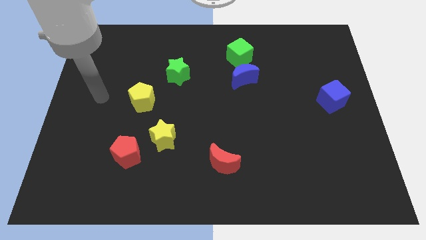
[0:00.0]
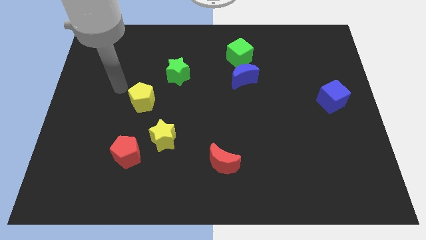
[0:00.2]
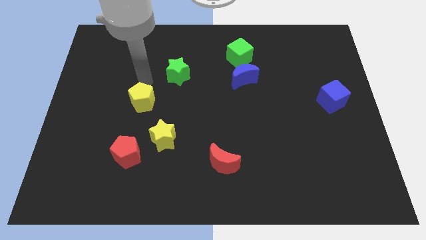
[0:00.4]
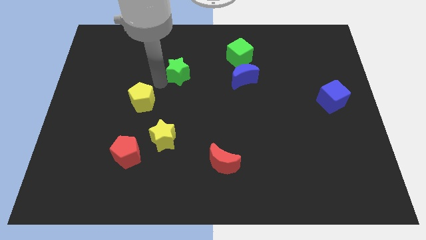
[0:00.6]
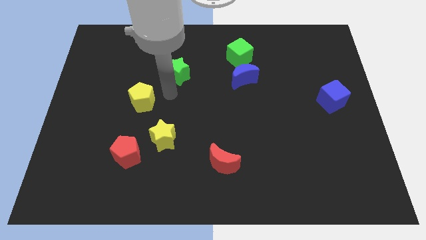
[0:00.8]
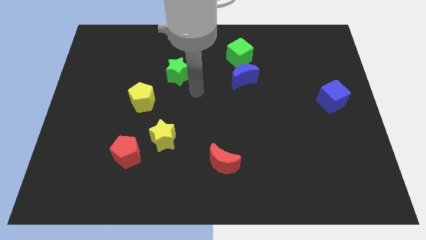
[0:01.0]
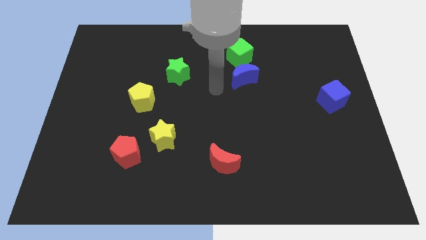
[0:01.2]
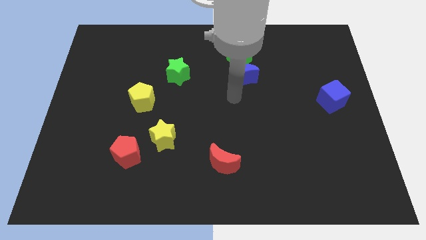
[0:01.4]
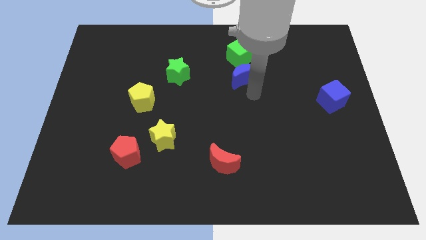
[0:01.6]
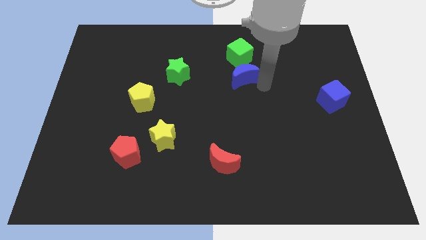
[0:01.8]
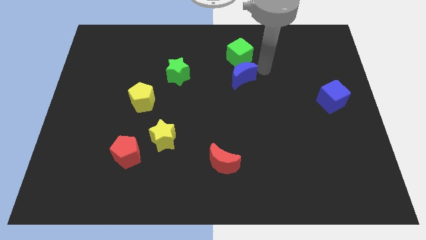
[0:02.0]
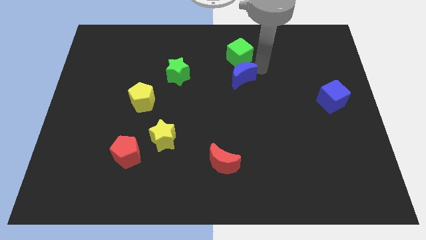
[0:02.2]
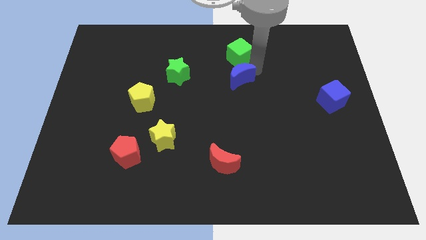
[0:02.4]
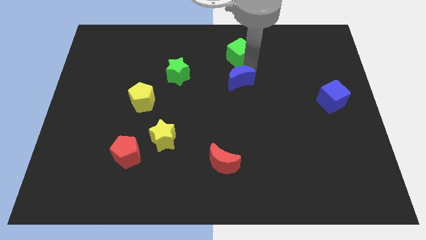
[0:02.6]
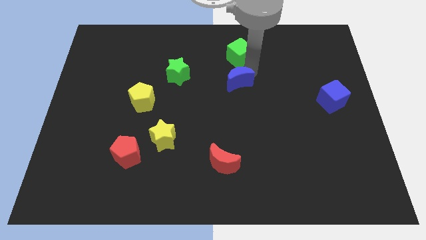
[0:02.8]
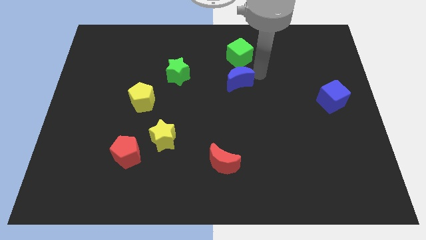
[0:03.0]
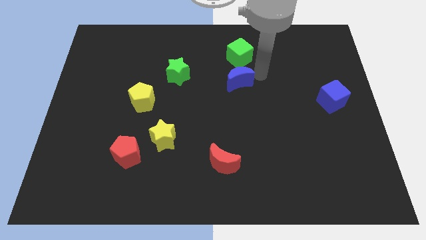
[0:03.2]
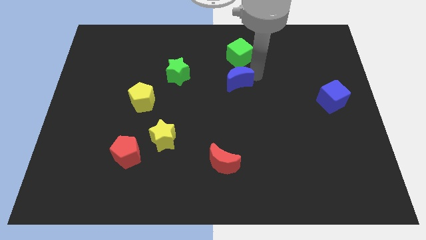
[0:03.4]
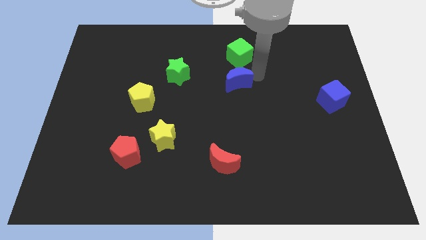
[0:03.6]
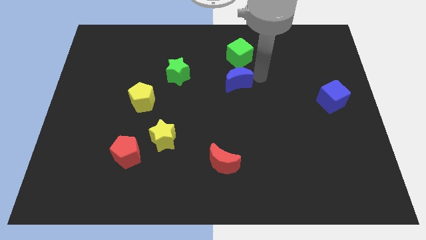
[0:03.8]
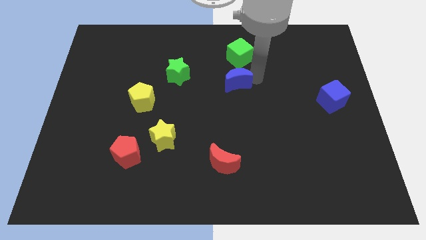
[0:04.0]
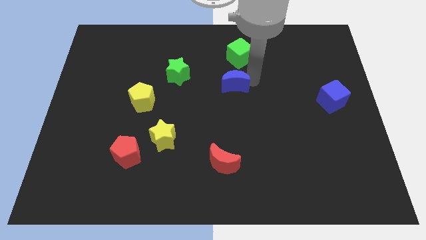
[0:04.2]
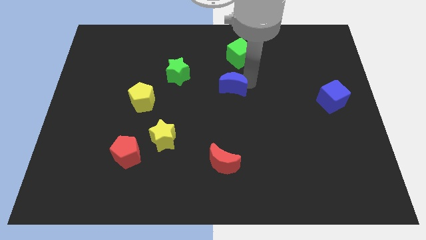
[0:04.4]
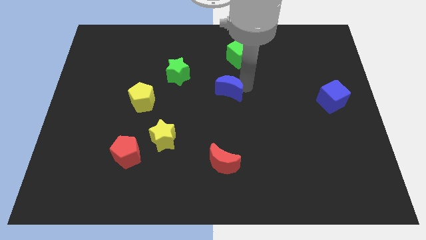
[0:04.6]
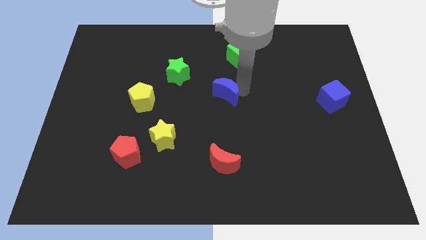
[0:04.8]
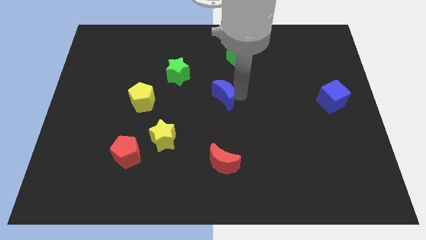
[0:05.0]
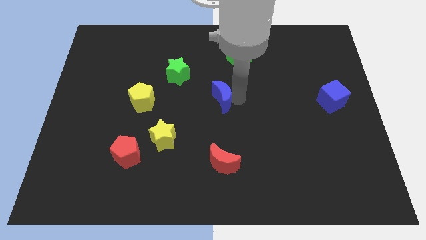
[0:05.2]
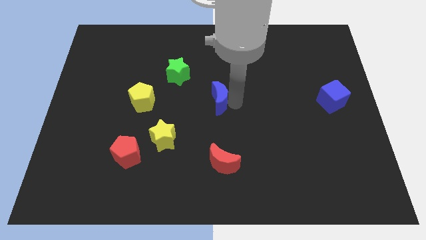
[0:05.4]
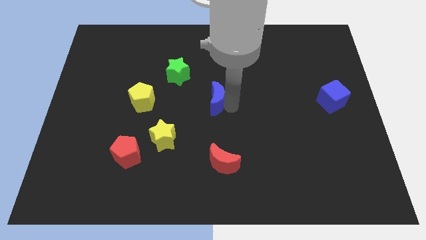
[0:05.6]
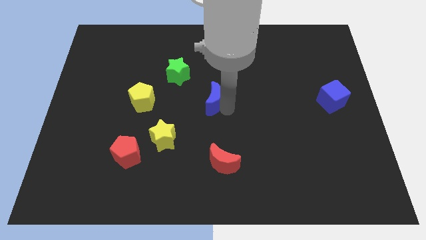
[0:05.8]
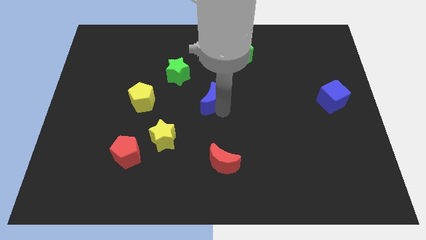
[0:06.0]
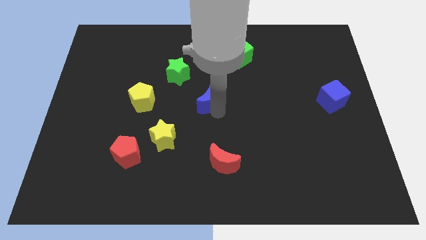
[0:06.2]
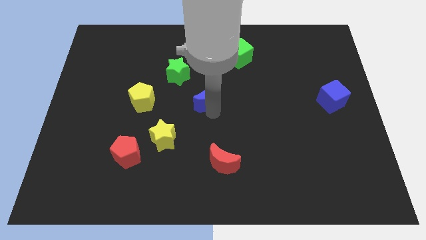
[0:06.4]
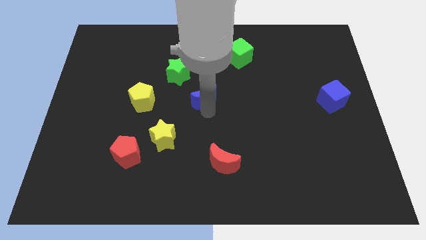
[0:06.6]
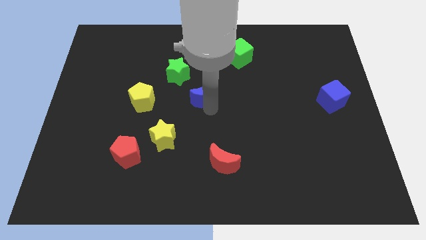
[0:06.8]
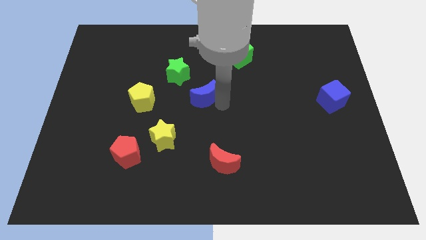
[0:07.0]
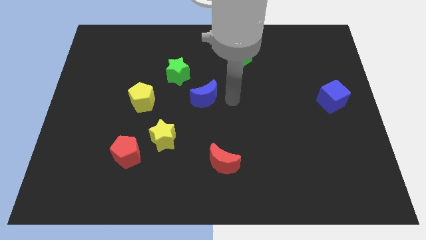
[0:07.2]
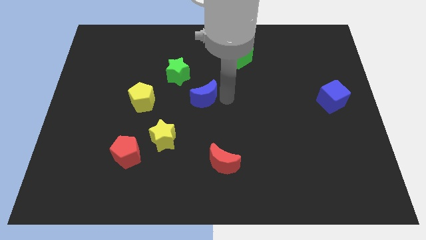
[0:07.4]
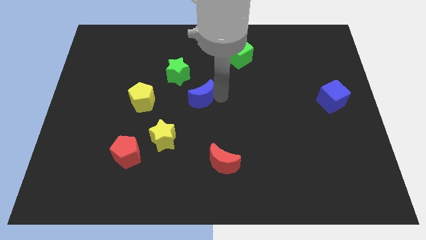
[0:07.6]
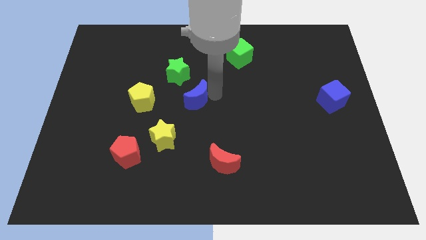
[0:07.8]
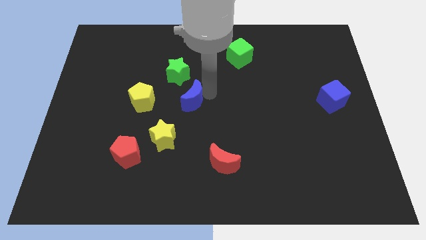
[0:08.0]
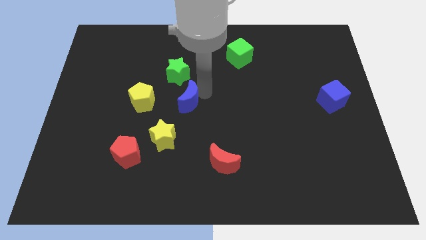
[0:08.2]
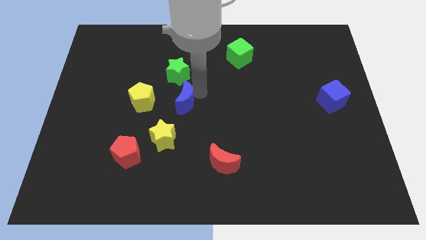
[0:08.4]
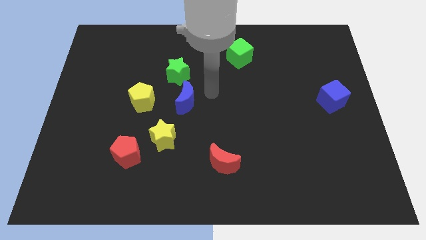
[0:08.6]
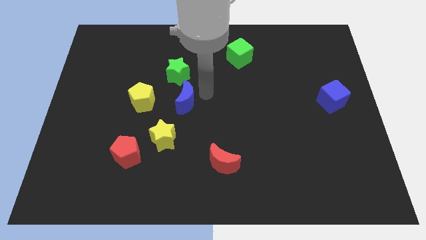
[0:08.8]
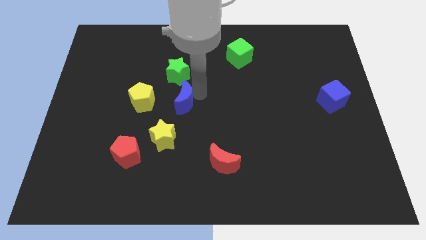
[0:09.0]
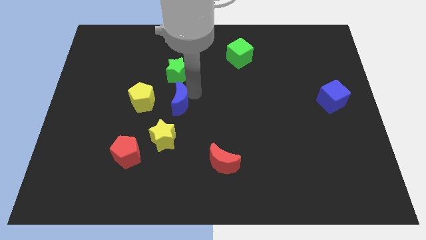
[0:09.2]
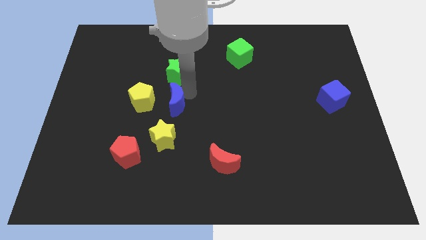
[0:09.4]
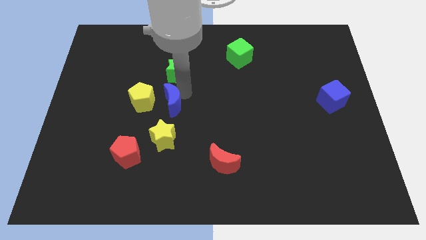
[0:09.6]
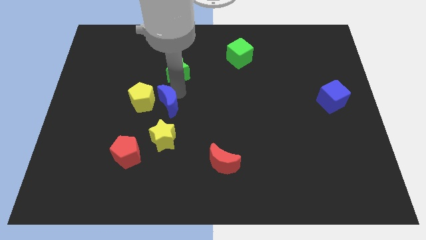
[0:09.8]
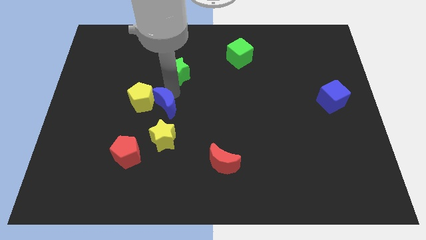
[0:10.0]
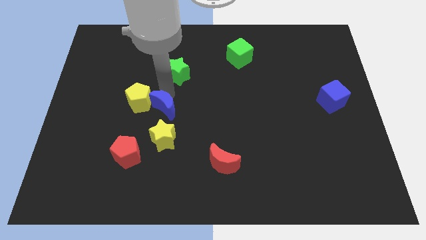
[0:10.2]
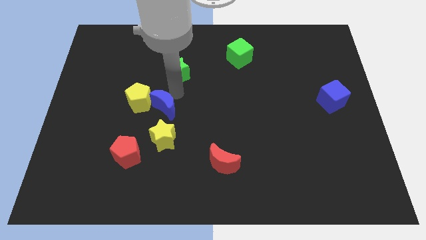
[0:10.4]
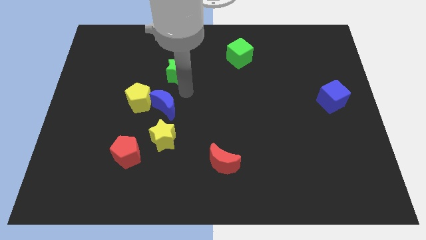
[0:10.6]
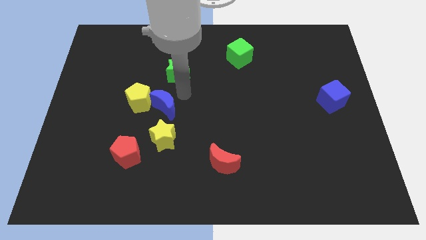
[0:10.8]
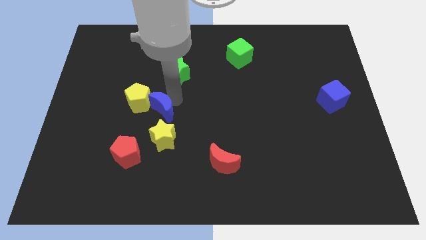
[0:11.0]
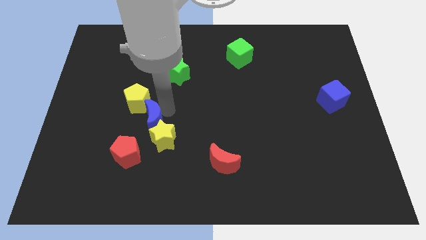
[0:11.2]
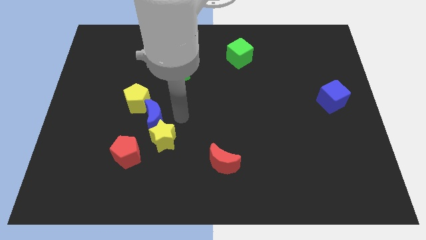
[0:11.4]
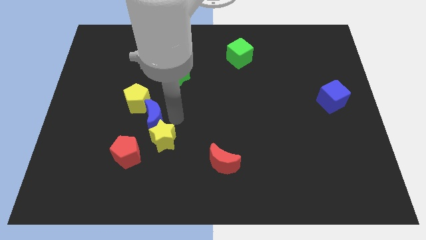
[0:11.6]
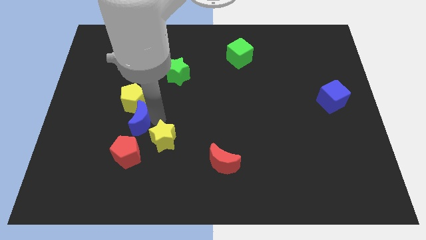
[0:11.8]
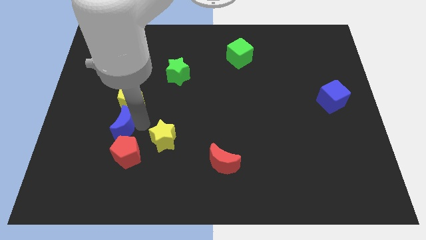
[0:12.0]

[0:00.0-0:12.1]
put the blue moon to the bottom left of the yellow pentagon
